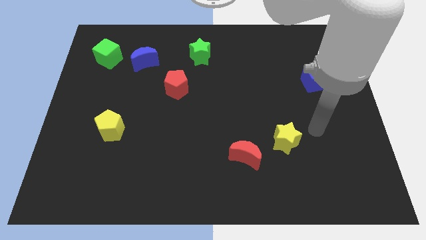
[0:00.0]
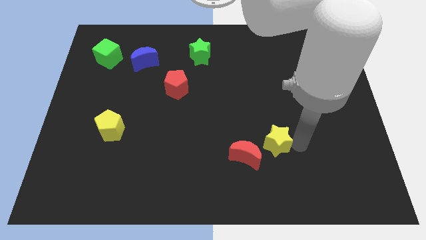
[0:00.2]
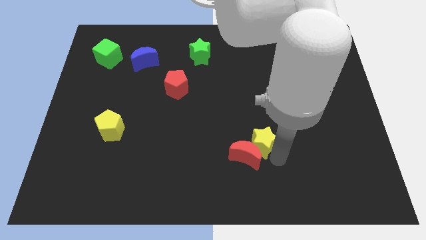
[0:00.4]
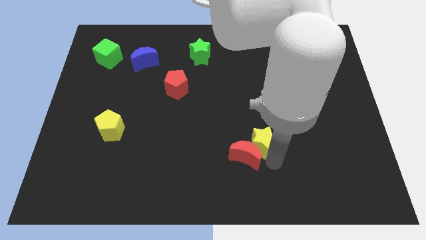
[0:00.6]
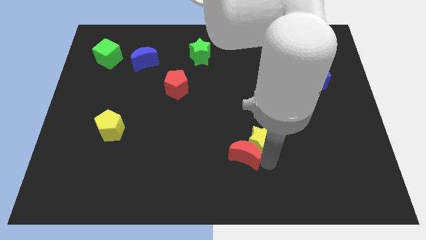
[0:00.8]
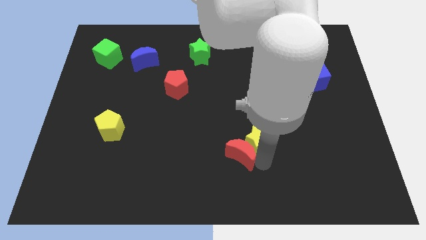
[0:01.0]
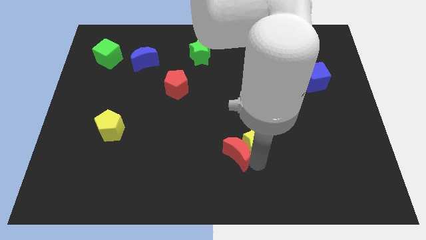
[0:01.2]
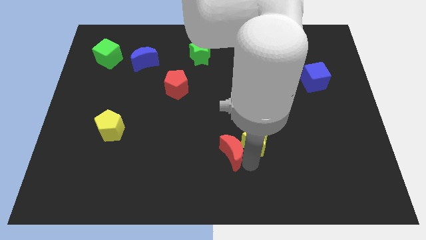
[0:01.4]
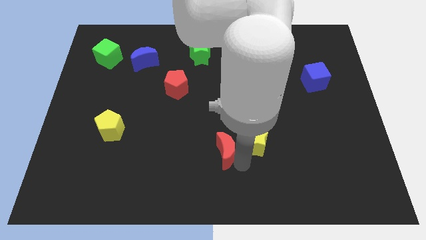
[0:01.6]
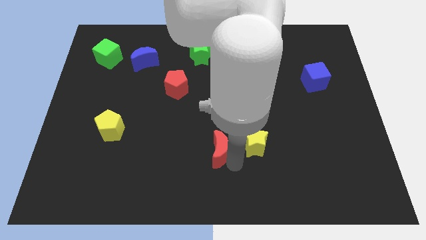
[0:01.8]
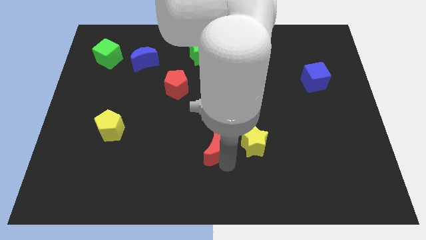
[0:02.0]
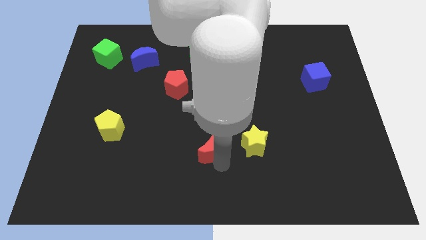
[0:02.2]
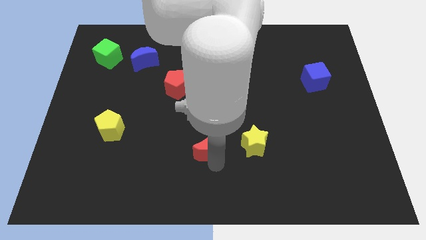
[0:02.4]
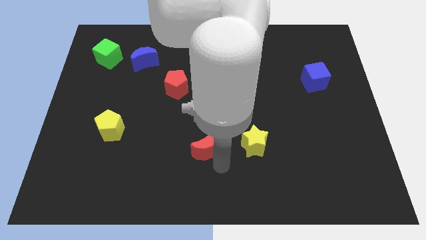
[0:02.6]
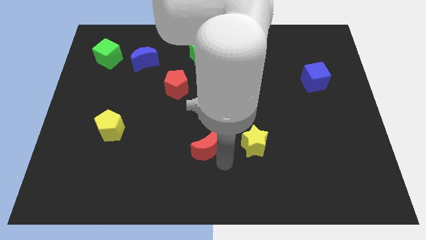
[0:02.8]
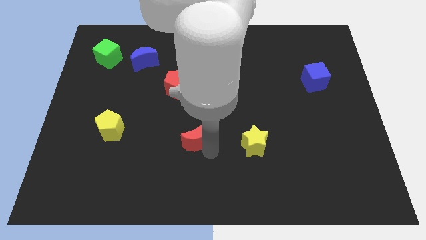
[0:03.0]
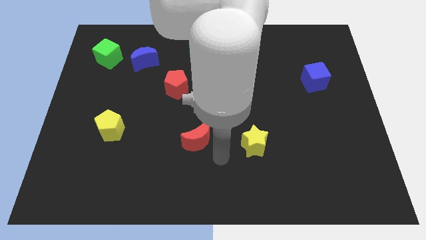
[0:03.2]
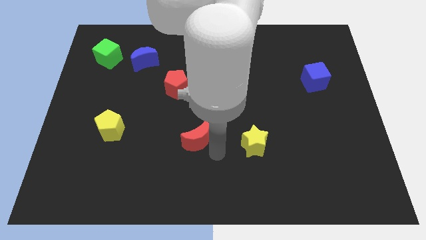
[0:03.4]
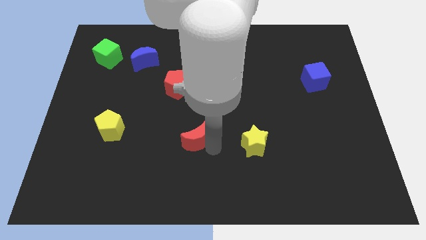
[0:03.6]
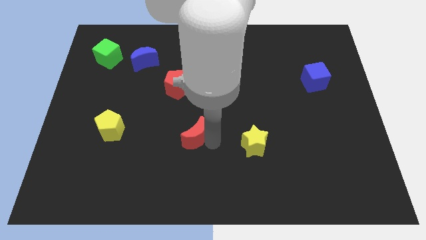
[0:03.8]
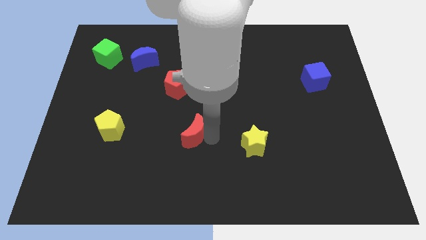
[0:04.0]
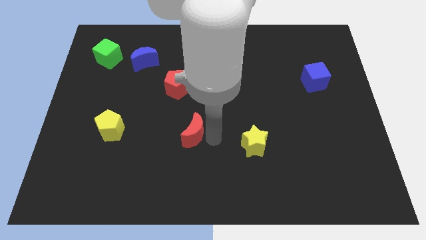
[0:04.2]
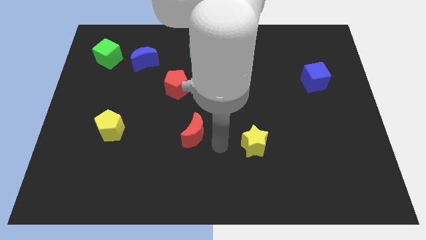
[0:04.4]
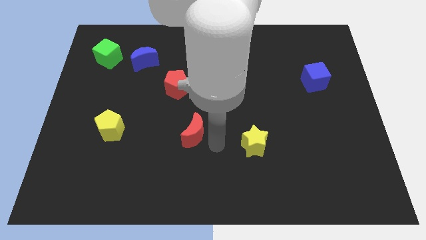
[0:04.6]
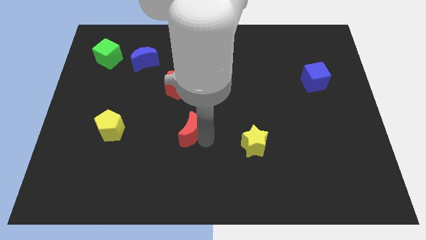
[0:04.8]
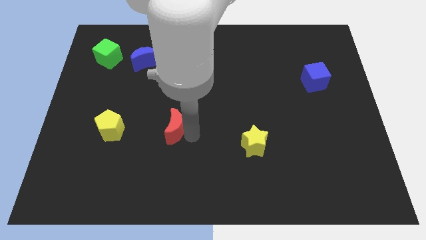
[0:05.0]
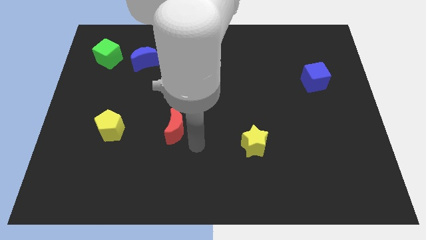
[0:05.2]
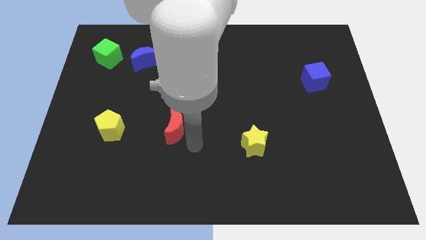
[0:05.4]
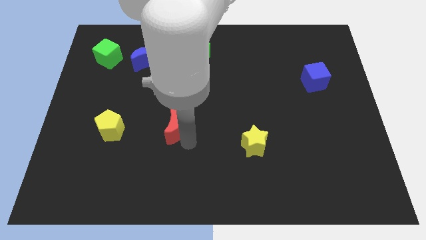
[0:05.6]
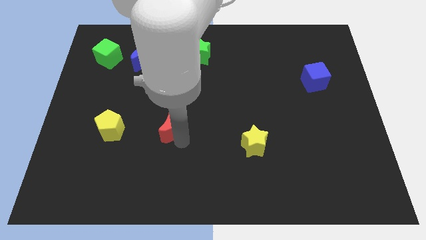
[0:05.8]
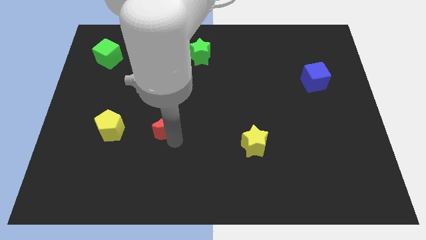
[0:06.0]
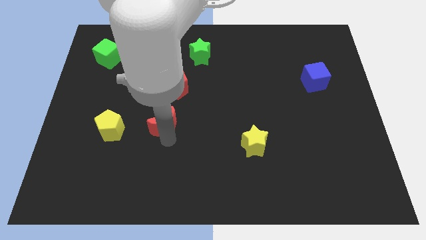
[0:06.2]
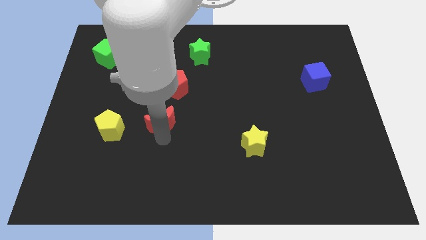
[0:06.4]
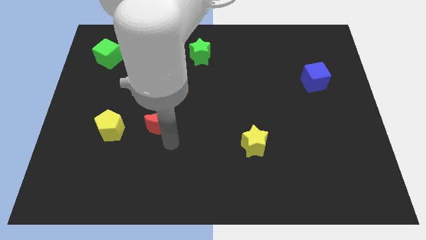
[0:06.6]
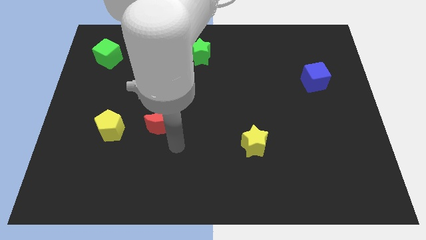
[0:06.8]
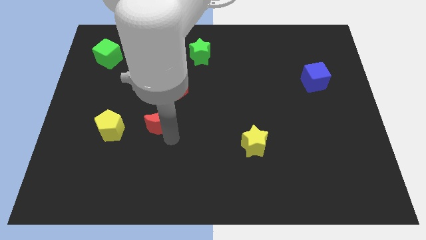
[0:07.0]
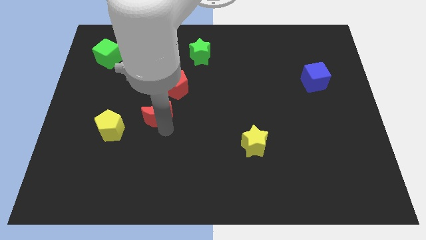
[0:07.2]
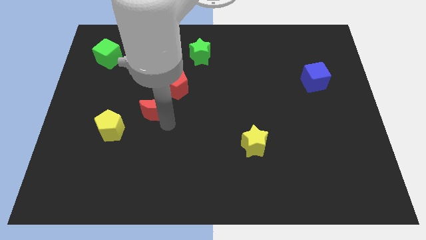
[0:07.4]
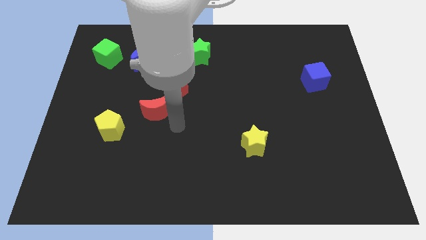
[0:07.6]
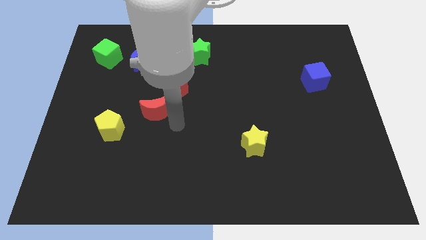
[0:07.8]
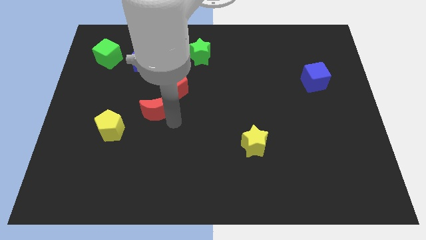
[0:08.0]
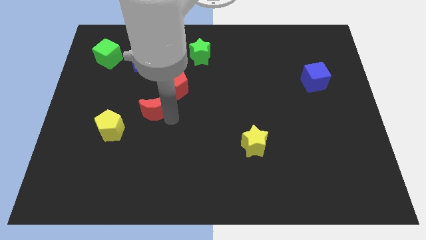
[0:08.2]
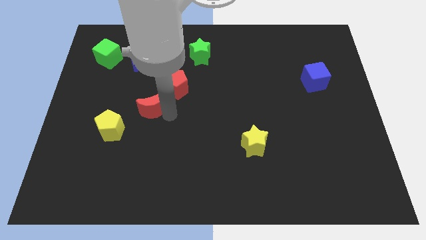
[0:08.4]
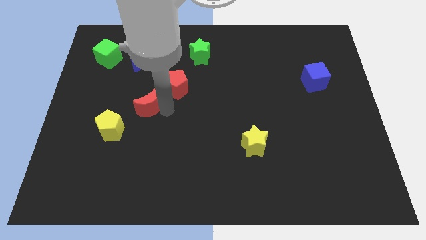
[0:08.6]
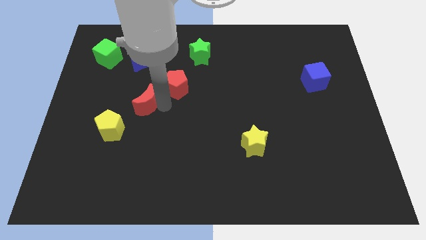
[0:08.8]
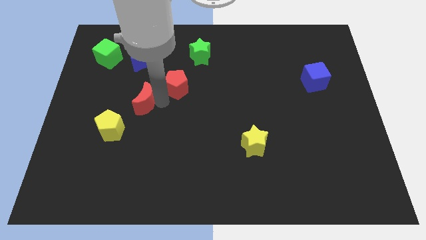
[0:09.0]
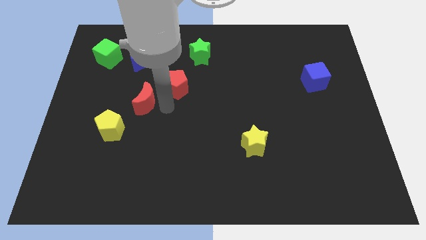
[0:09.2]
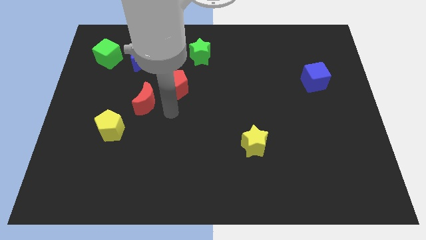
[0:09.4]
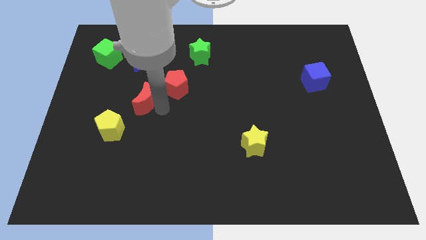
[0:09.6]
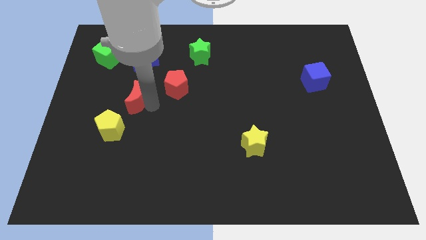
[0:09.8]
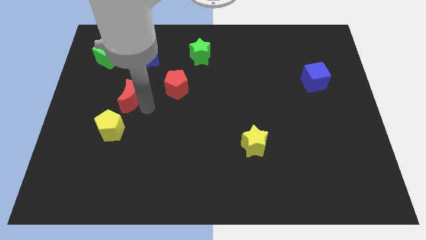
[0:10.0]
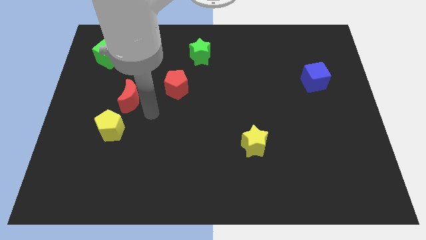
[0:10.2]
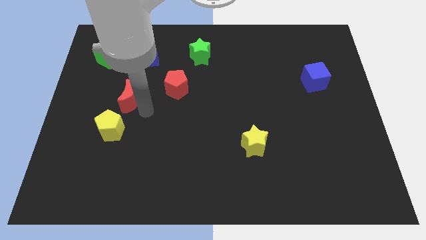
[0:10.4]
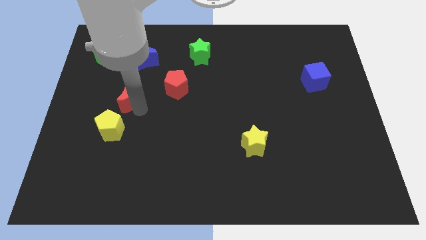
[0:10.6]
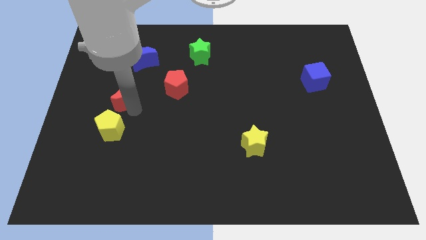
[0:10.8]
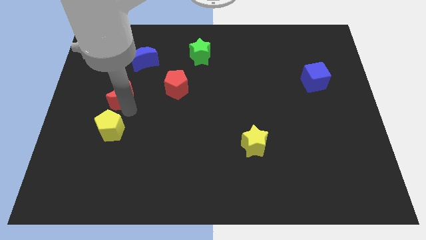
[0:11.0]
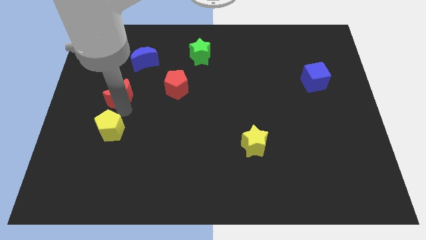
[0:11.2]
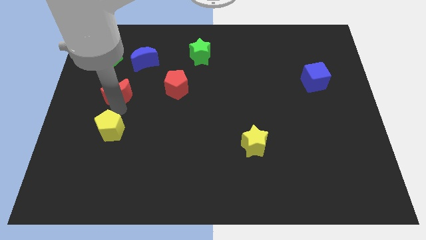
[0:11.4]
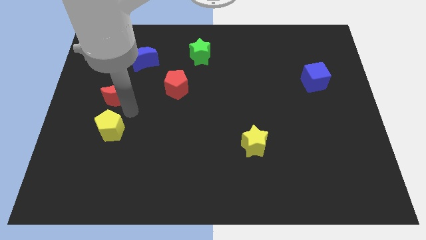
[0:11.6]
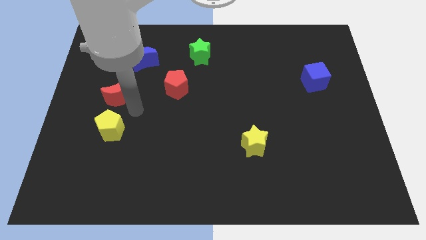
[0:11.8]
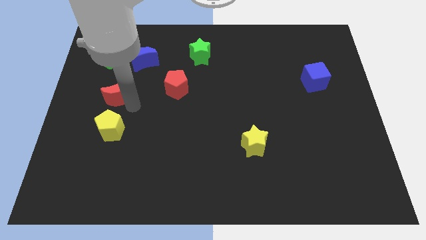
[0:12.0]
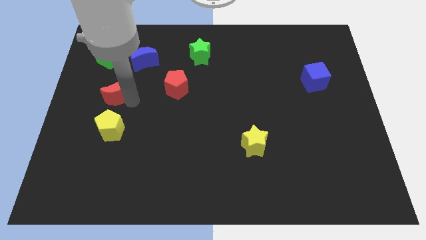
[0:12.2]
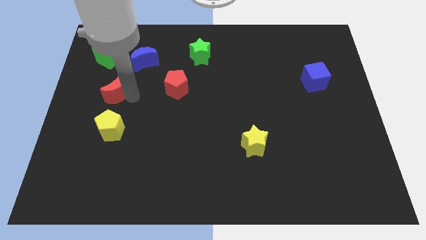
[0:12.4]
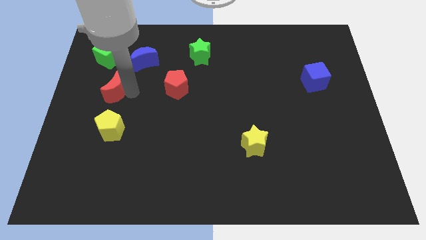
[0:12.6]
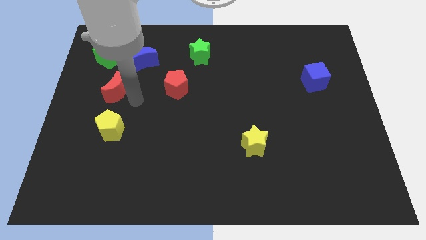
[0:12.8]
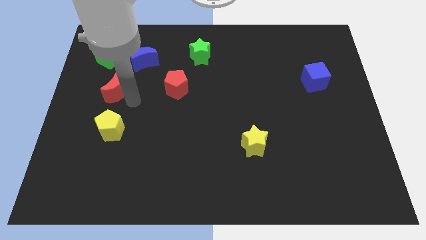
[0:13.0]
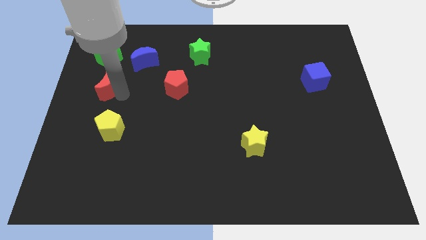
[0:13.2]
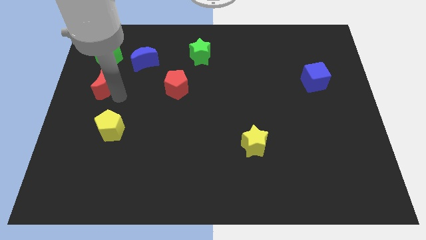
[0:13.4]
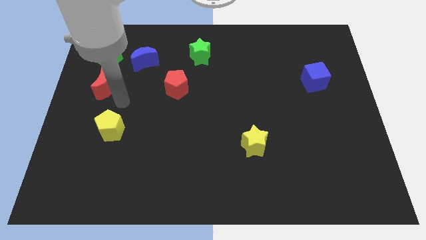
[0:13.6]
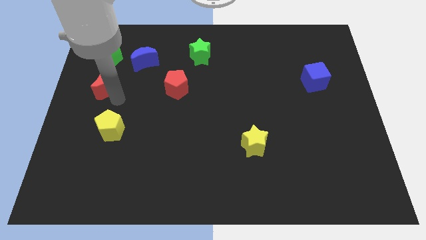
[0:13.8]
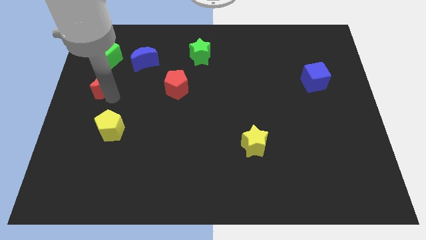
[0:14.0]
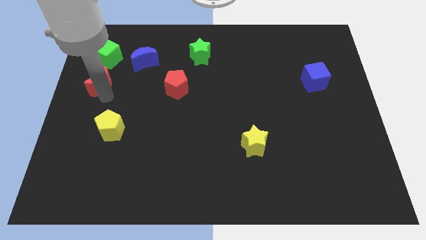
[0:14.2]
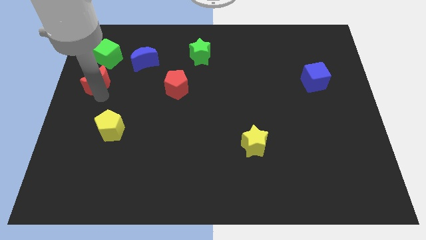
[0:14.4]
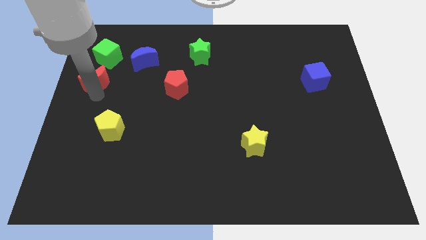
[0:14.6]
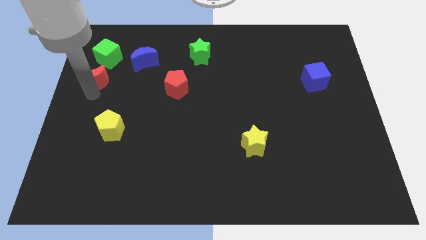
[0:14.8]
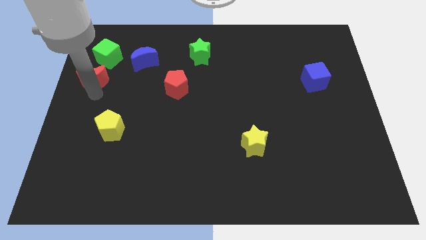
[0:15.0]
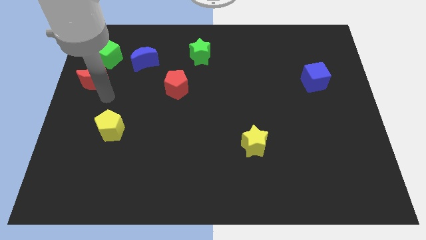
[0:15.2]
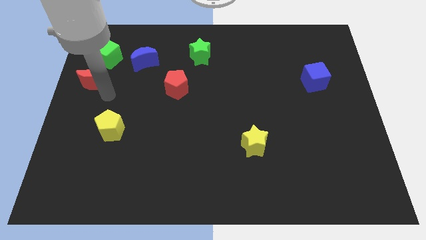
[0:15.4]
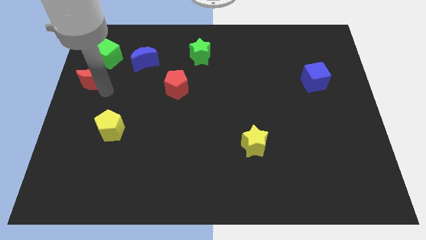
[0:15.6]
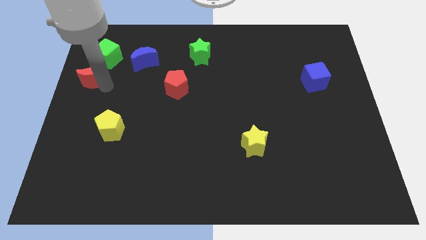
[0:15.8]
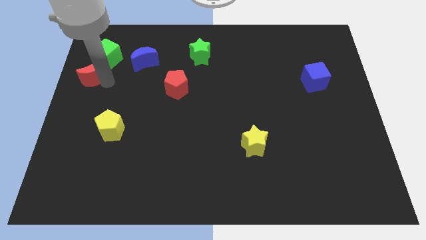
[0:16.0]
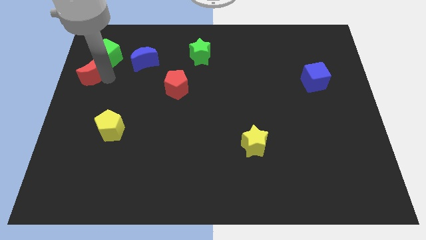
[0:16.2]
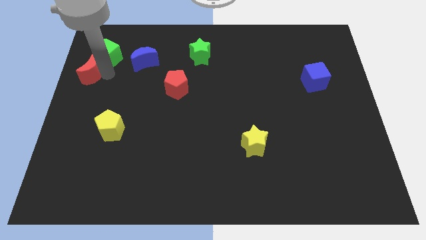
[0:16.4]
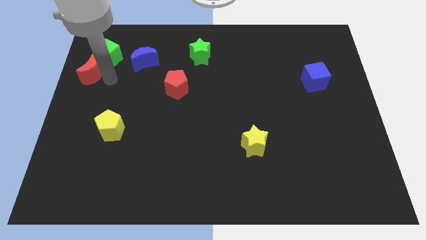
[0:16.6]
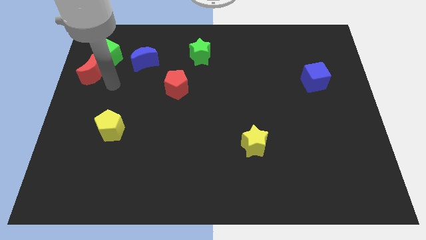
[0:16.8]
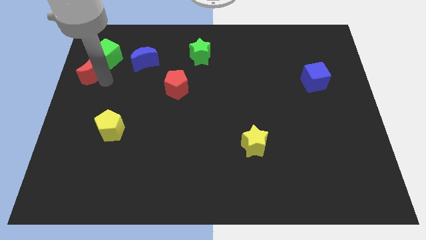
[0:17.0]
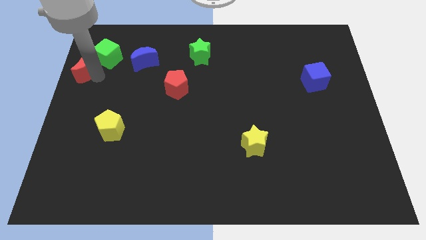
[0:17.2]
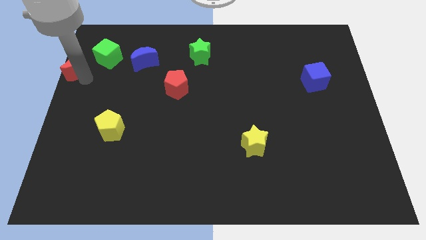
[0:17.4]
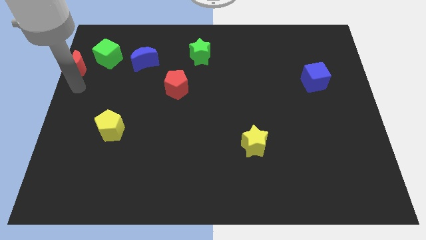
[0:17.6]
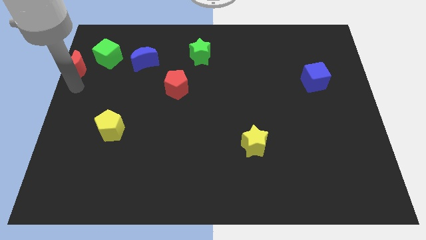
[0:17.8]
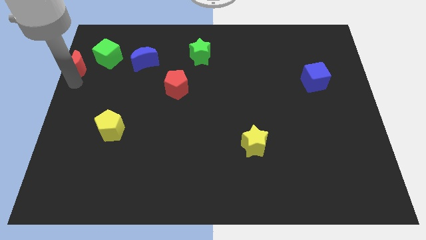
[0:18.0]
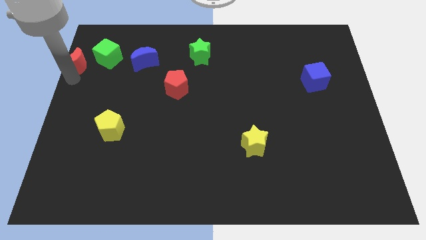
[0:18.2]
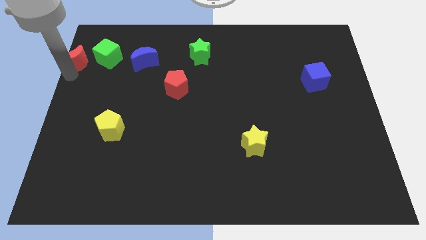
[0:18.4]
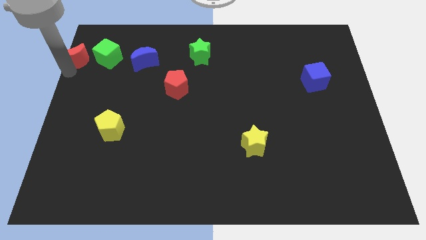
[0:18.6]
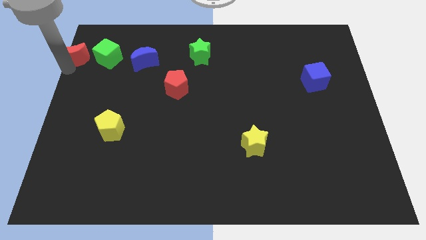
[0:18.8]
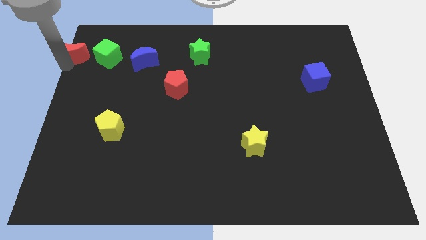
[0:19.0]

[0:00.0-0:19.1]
push the red moon to the top left corner
